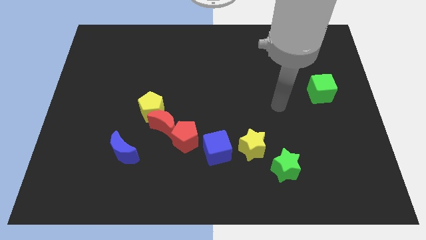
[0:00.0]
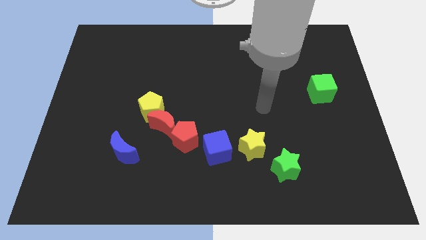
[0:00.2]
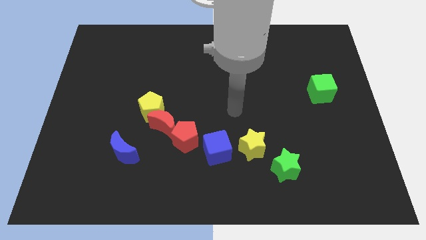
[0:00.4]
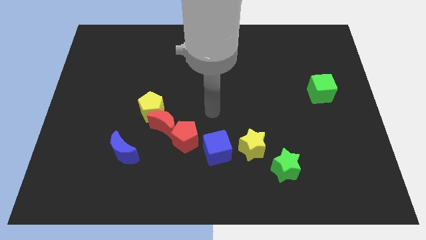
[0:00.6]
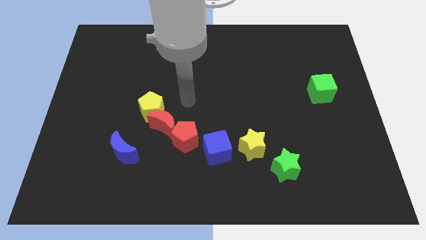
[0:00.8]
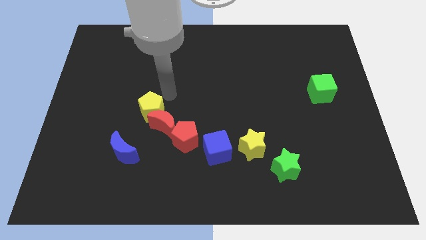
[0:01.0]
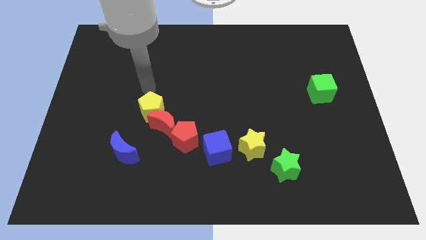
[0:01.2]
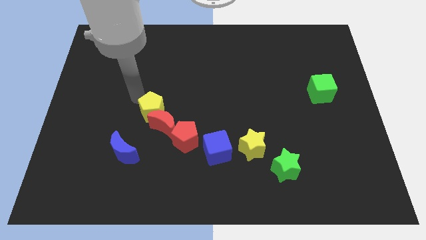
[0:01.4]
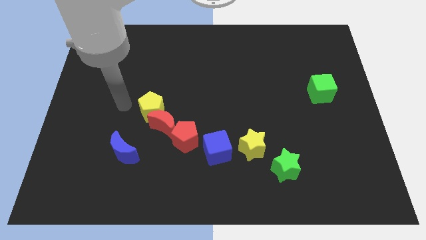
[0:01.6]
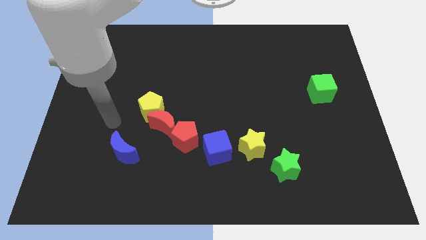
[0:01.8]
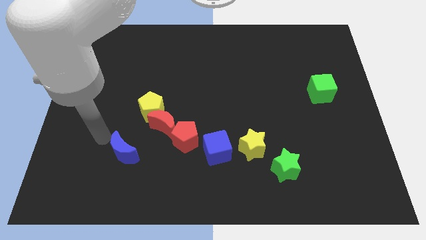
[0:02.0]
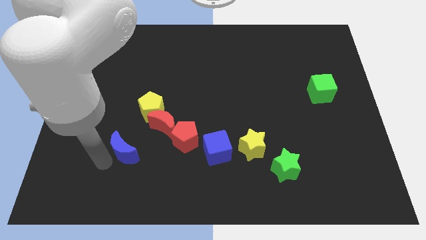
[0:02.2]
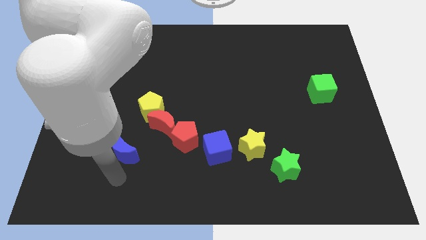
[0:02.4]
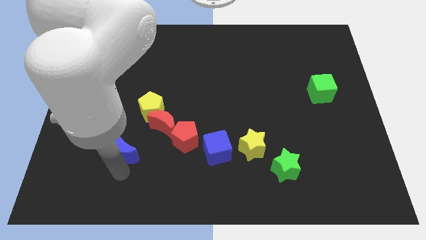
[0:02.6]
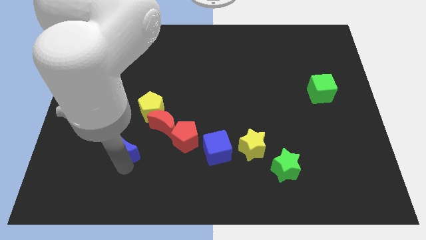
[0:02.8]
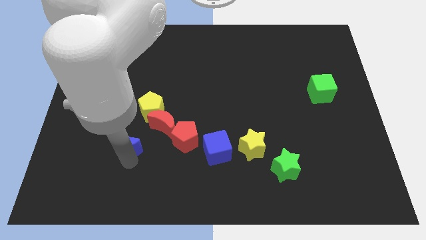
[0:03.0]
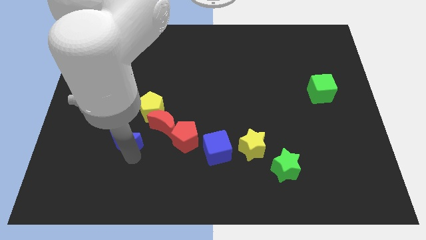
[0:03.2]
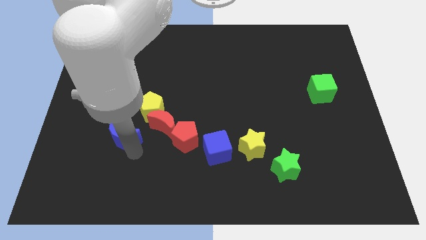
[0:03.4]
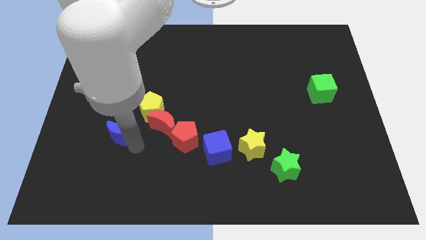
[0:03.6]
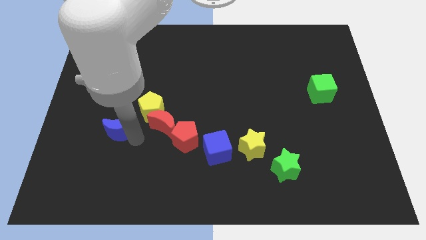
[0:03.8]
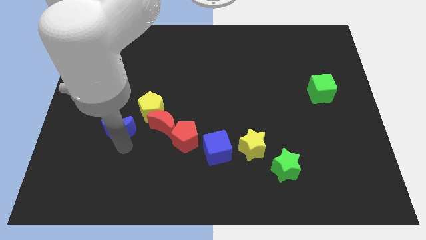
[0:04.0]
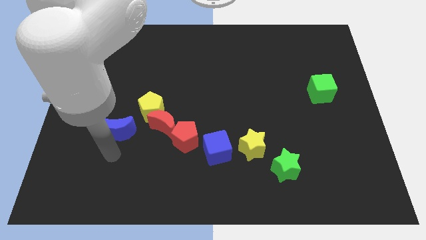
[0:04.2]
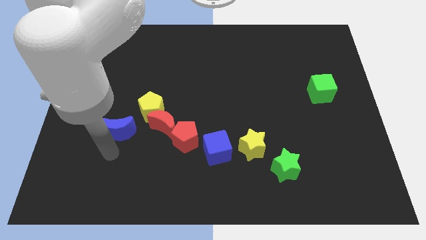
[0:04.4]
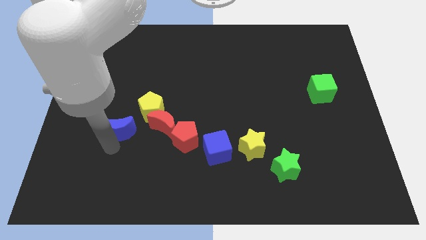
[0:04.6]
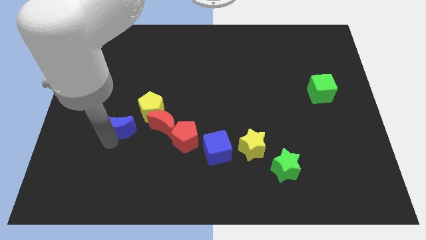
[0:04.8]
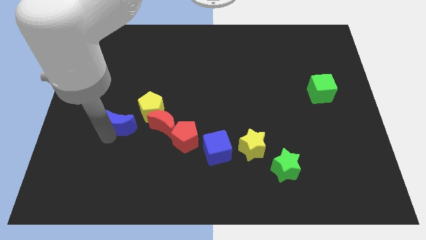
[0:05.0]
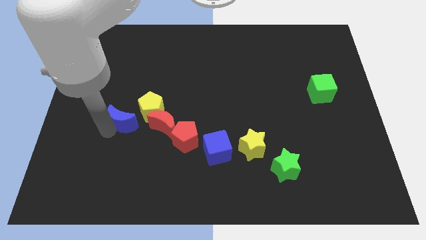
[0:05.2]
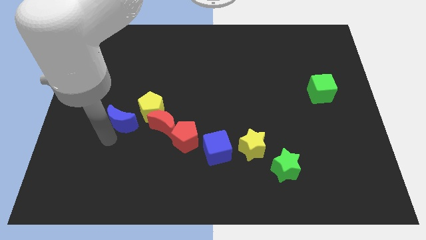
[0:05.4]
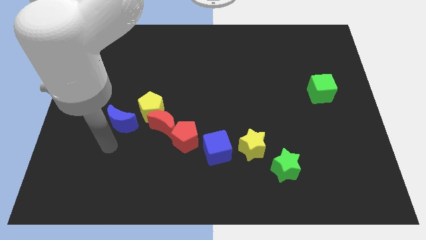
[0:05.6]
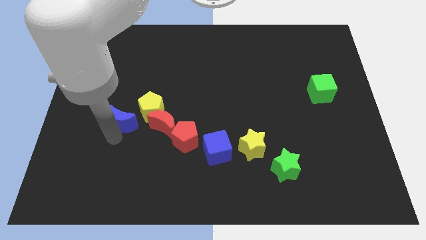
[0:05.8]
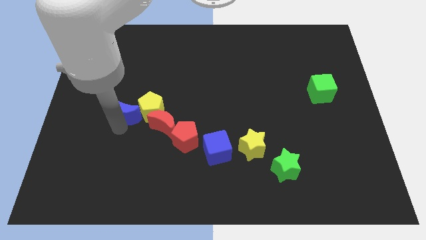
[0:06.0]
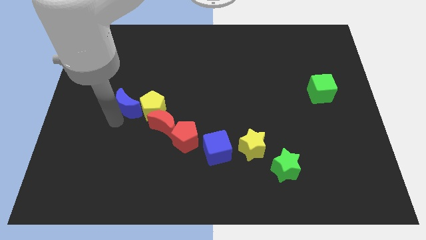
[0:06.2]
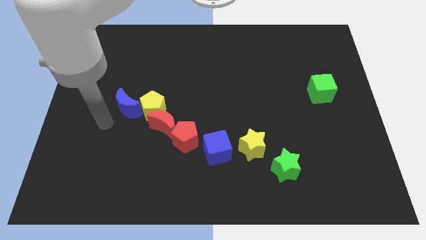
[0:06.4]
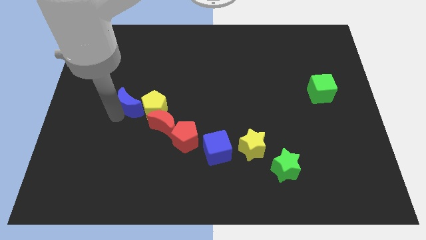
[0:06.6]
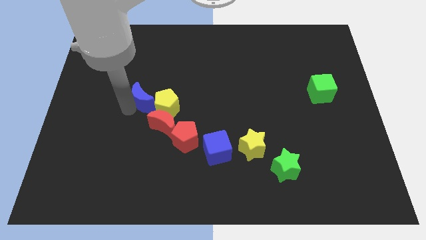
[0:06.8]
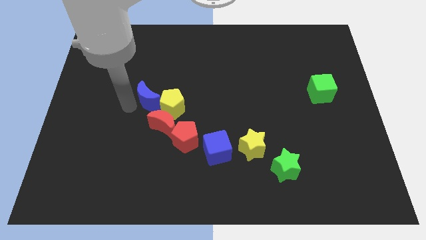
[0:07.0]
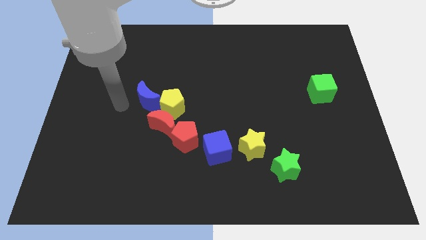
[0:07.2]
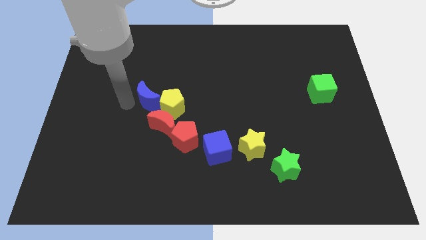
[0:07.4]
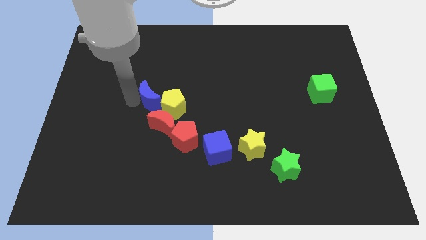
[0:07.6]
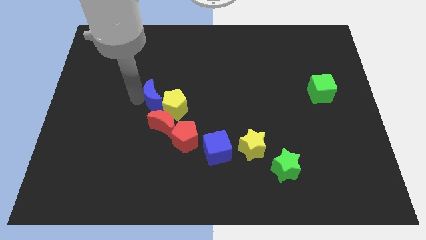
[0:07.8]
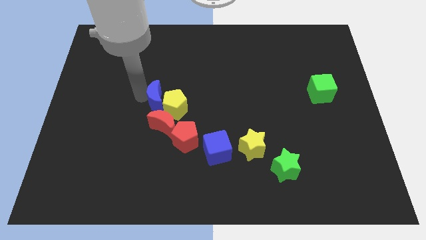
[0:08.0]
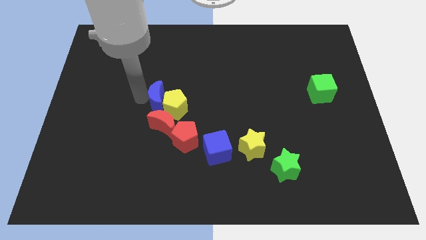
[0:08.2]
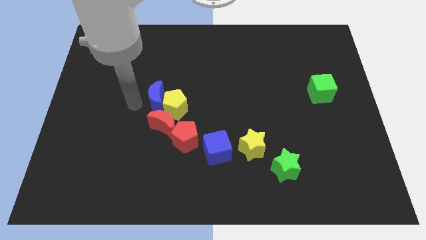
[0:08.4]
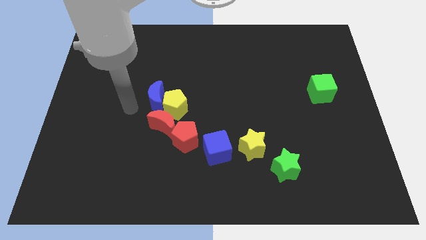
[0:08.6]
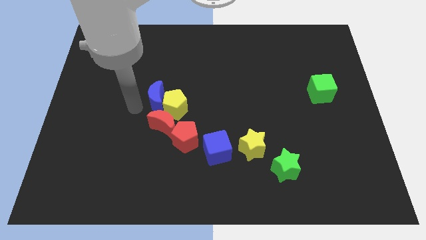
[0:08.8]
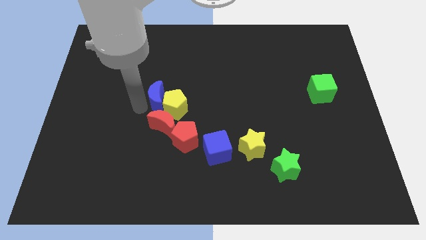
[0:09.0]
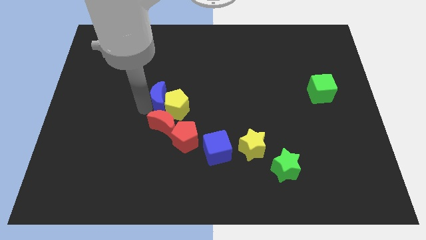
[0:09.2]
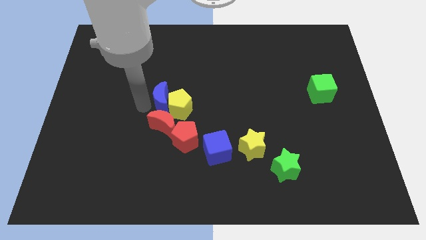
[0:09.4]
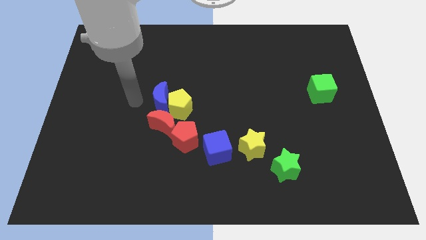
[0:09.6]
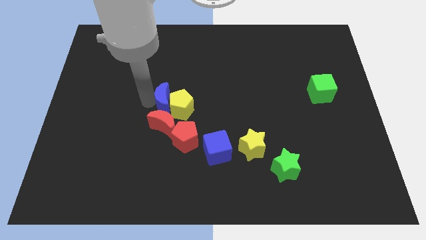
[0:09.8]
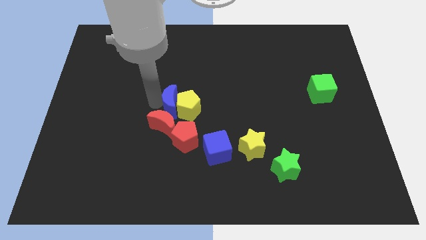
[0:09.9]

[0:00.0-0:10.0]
push the blue moon above the red pentagon

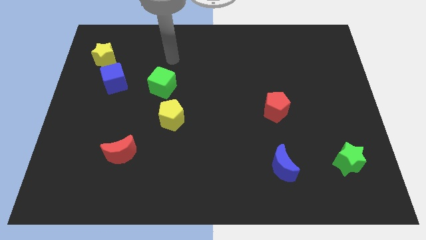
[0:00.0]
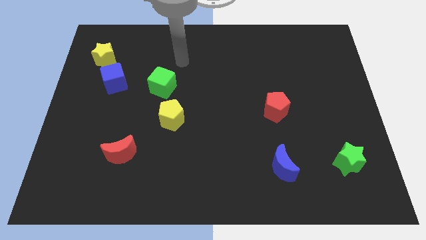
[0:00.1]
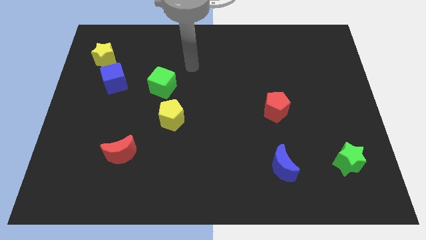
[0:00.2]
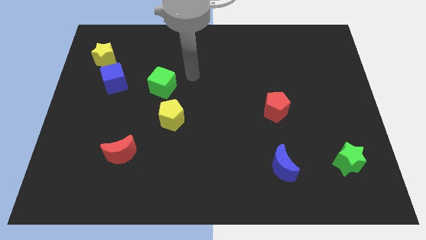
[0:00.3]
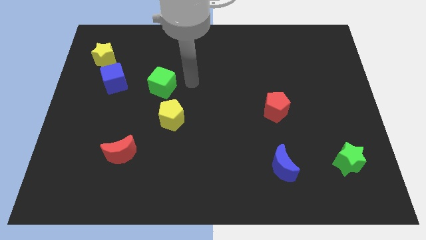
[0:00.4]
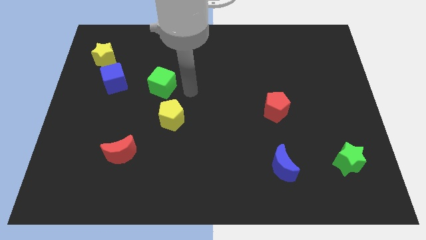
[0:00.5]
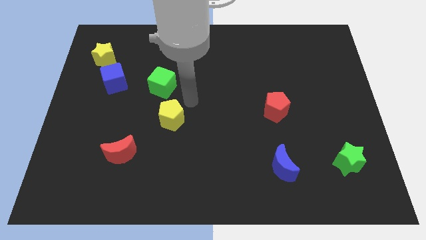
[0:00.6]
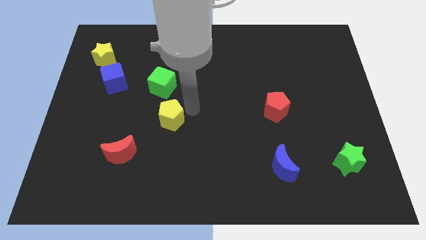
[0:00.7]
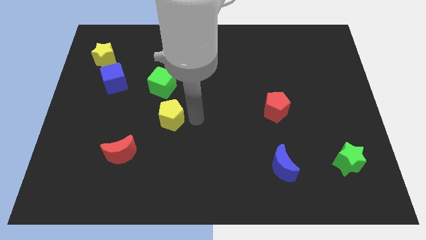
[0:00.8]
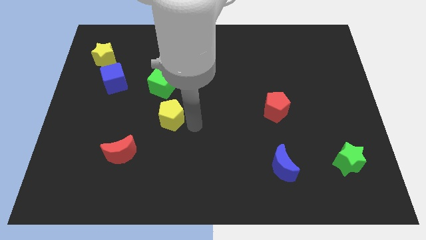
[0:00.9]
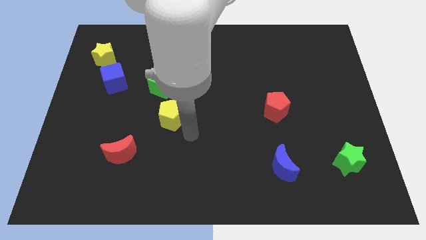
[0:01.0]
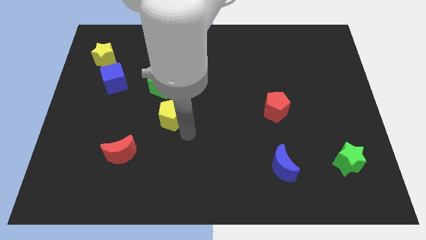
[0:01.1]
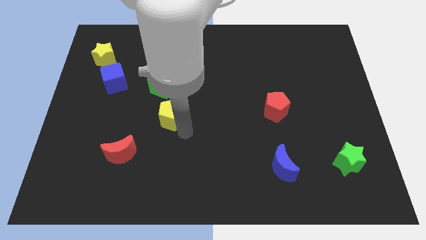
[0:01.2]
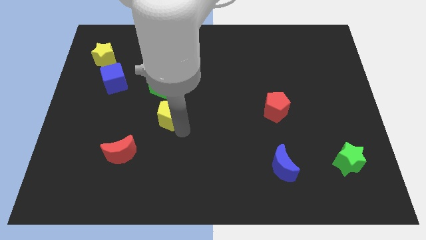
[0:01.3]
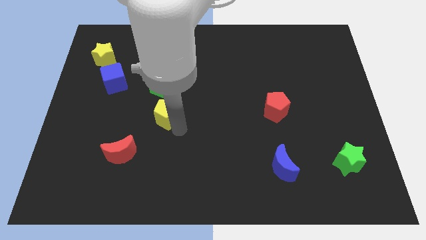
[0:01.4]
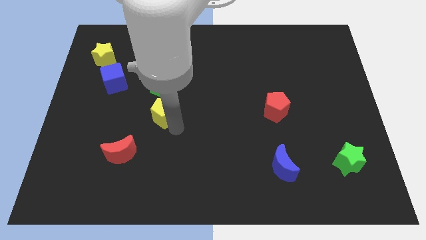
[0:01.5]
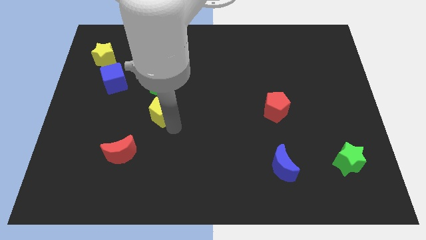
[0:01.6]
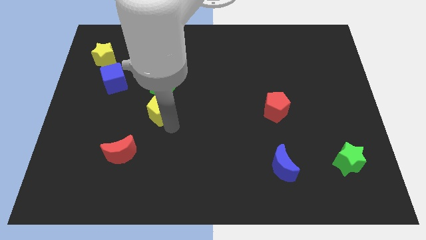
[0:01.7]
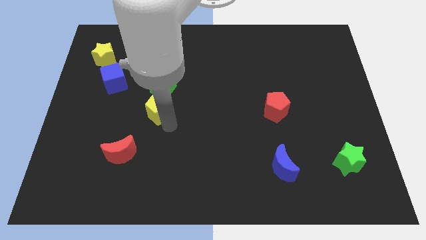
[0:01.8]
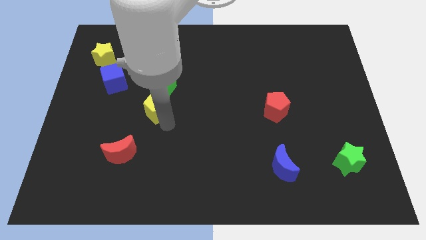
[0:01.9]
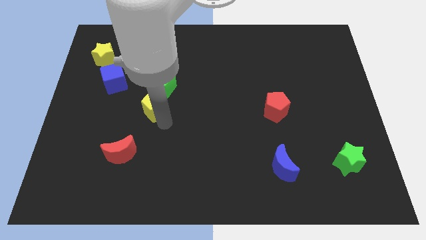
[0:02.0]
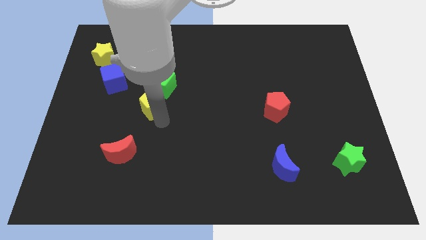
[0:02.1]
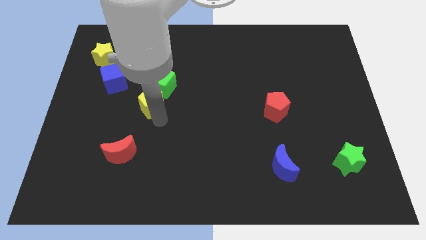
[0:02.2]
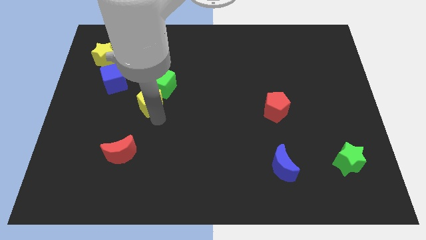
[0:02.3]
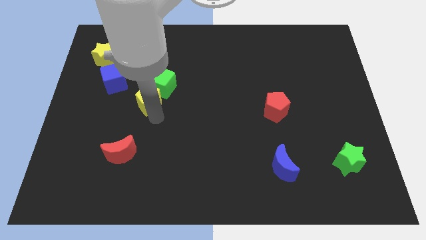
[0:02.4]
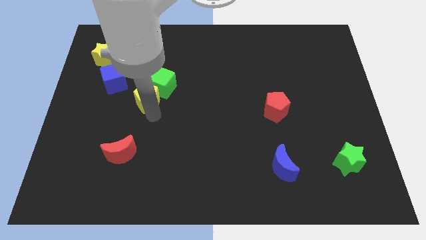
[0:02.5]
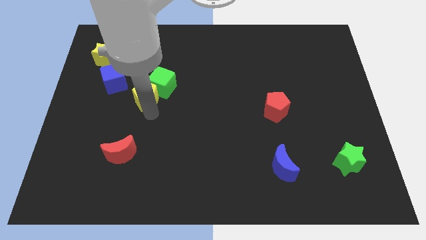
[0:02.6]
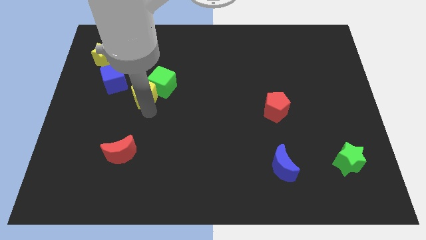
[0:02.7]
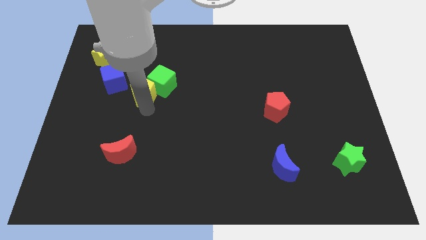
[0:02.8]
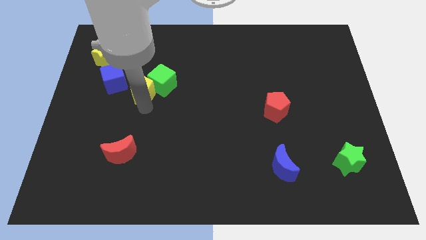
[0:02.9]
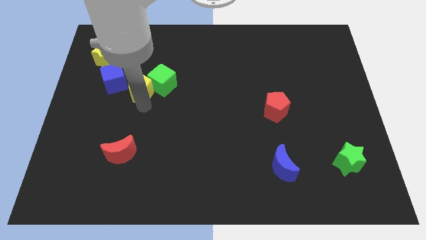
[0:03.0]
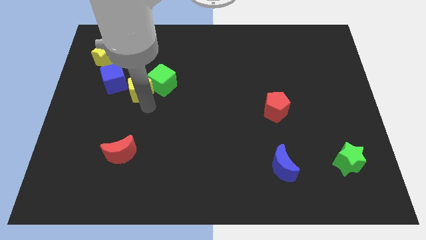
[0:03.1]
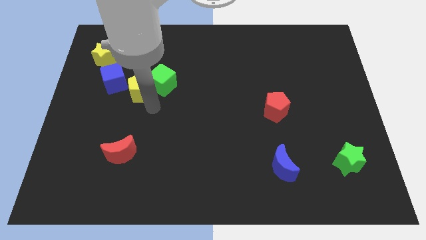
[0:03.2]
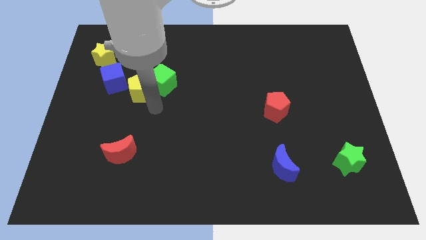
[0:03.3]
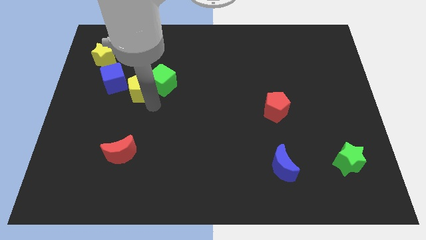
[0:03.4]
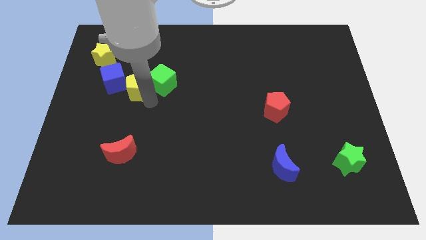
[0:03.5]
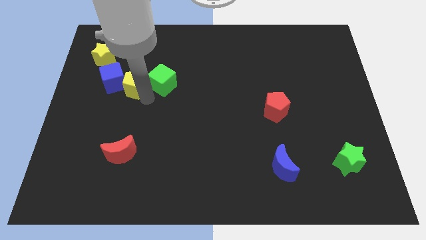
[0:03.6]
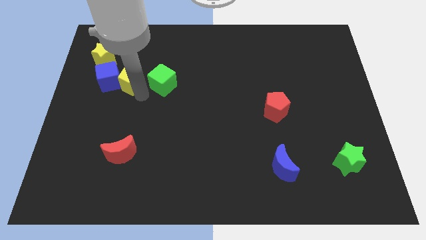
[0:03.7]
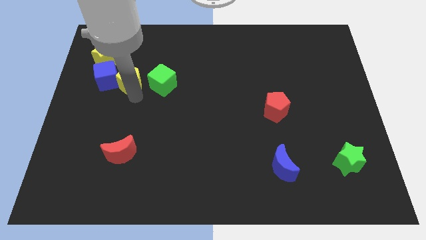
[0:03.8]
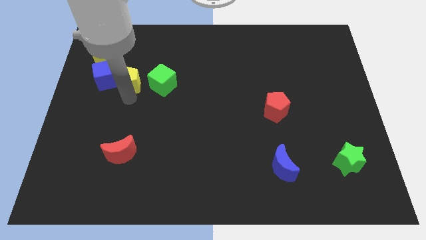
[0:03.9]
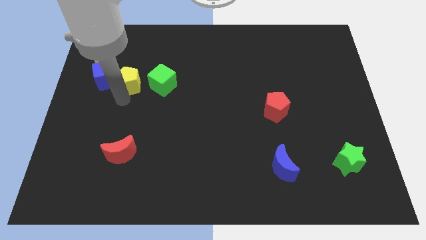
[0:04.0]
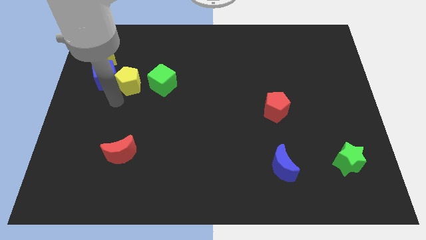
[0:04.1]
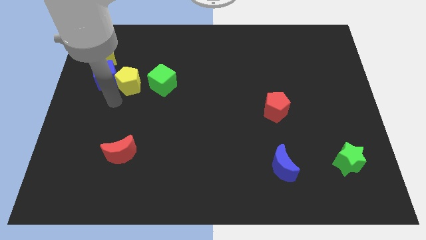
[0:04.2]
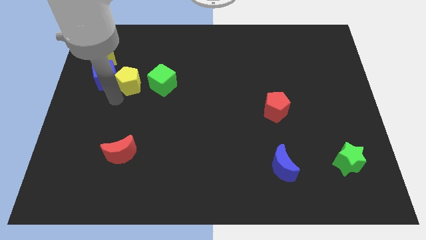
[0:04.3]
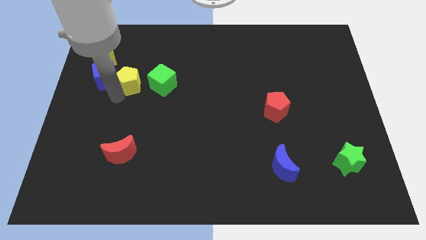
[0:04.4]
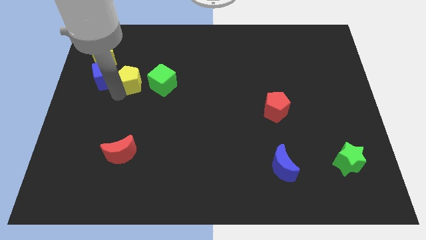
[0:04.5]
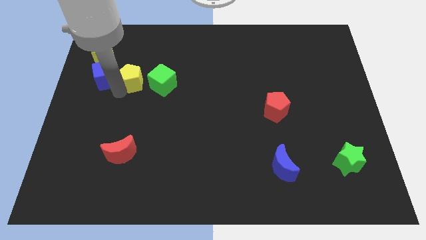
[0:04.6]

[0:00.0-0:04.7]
move the yellow pentagon to the top left side of the green cube
